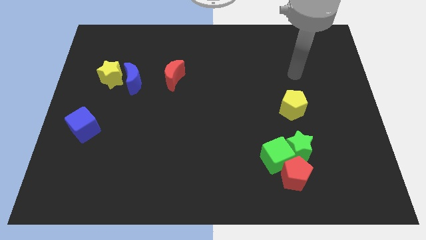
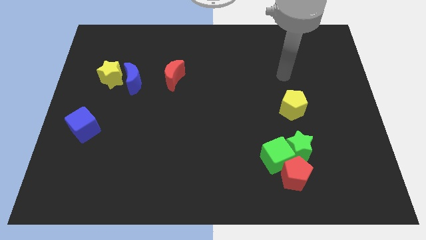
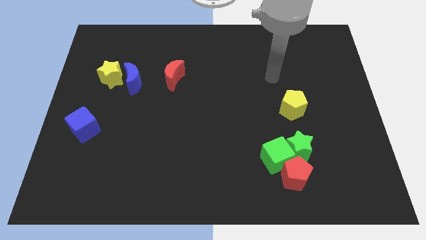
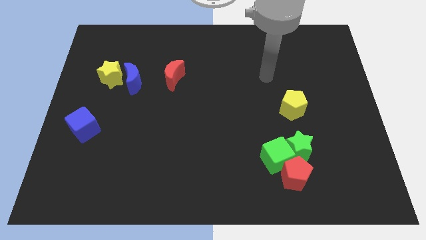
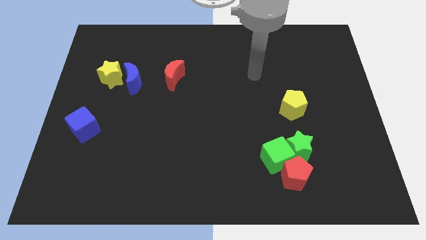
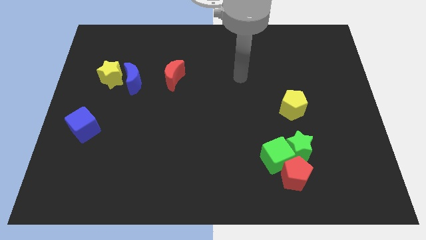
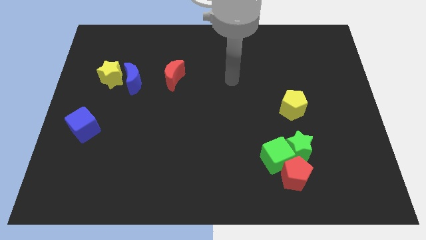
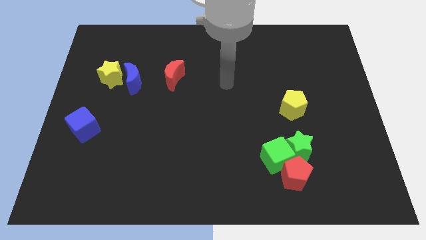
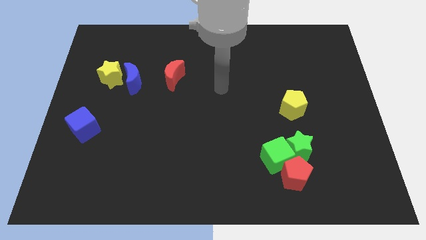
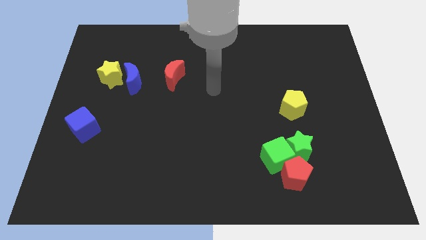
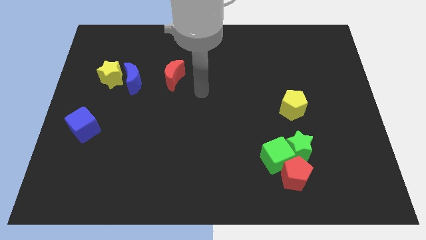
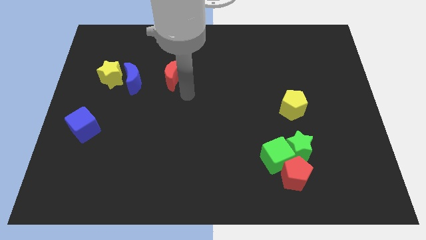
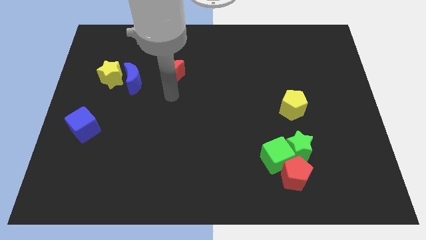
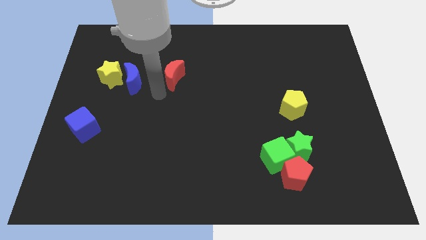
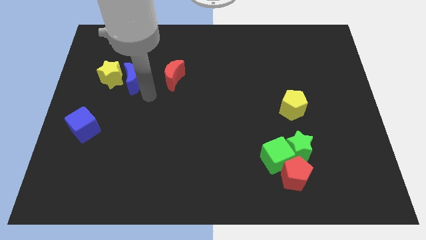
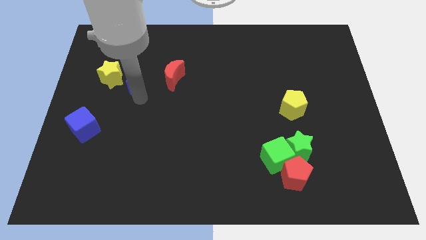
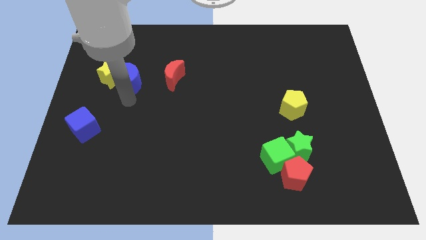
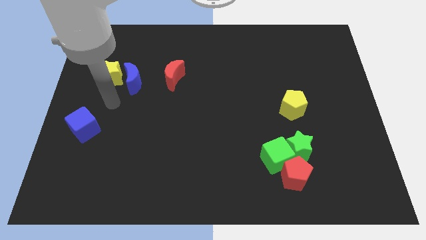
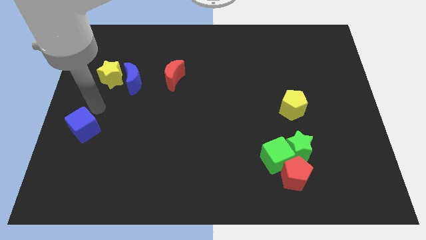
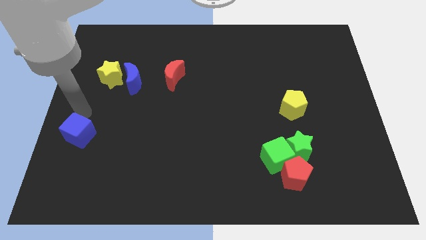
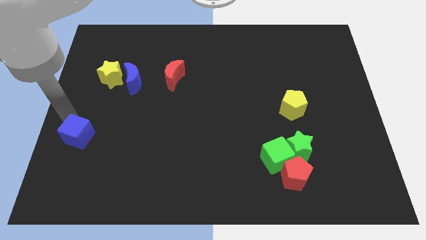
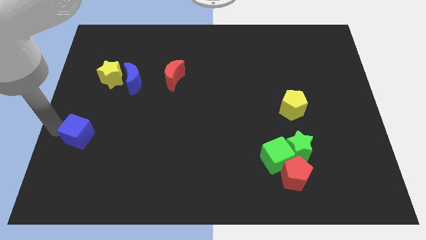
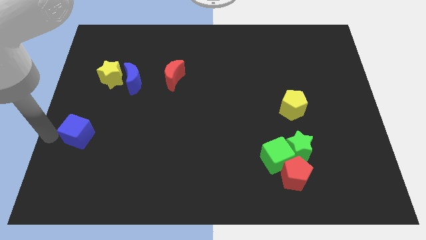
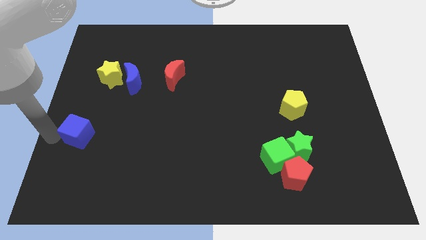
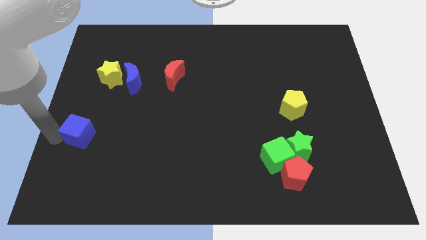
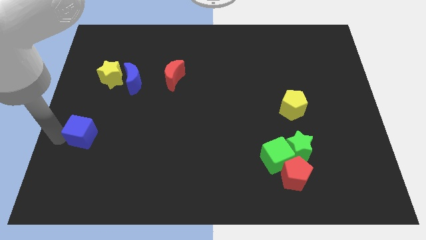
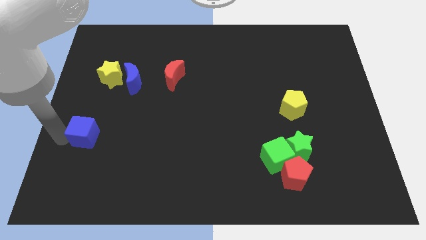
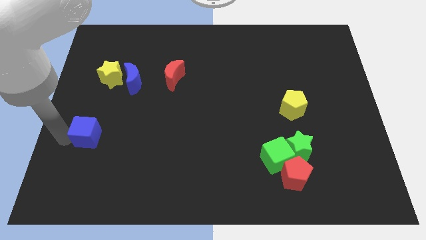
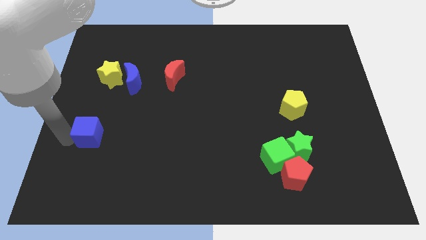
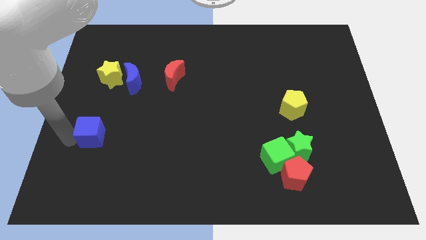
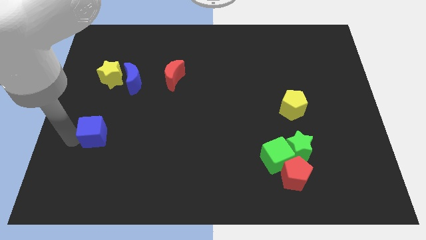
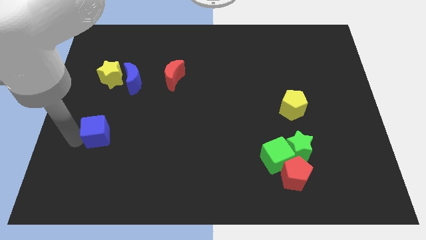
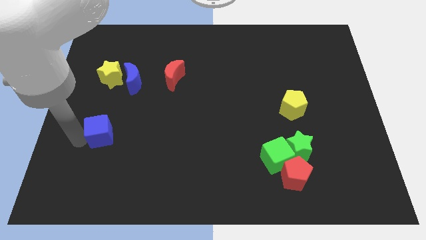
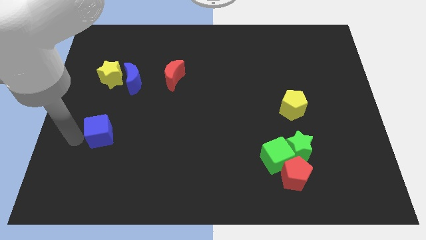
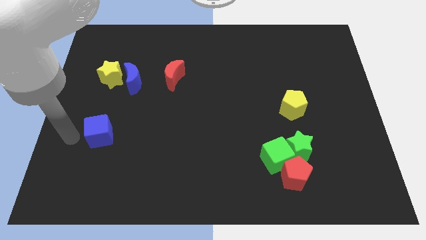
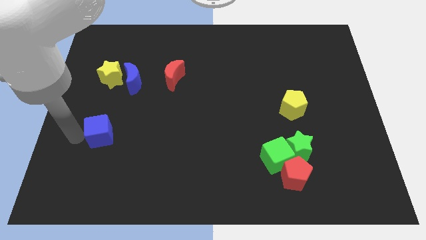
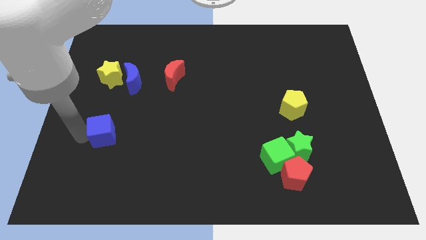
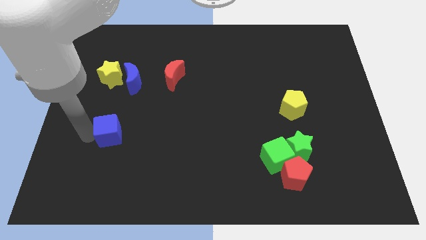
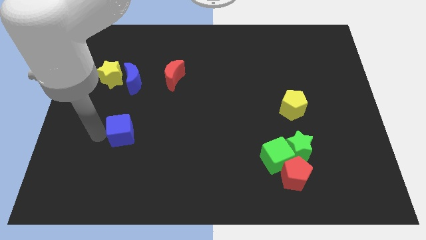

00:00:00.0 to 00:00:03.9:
push the blue cube a little right

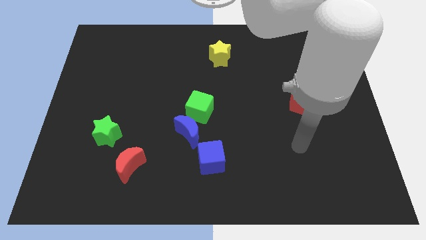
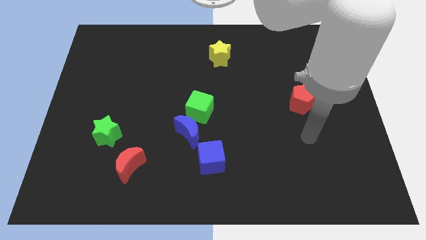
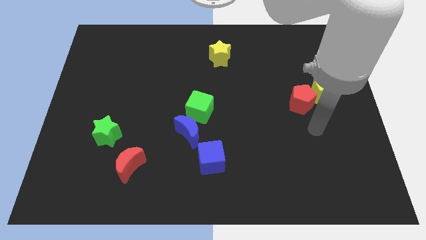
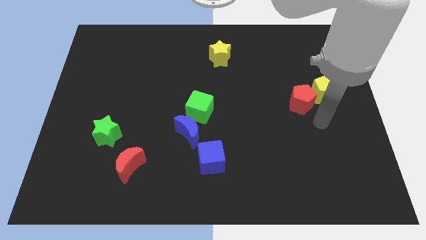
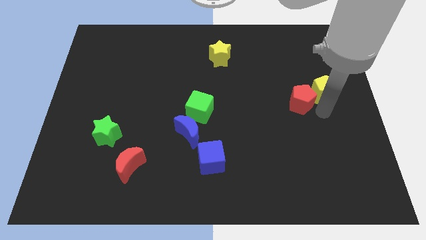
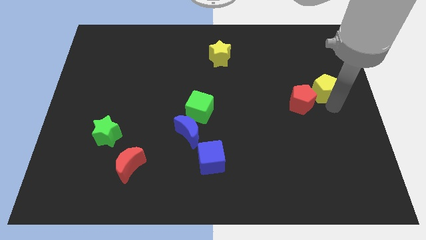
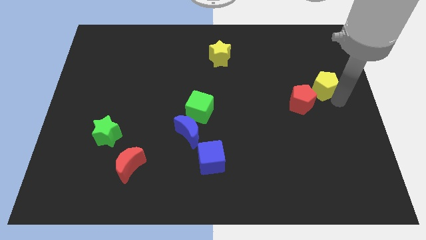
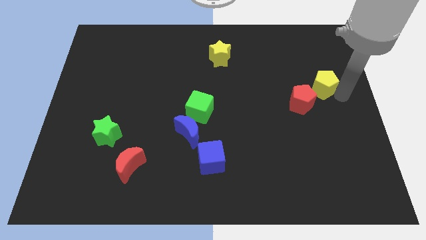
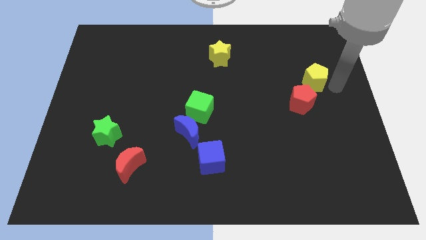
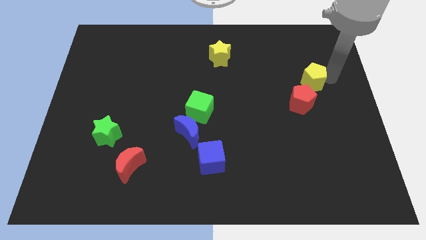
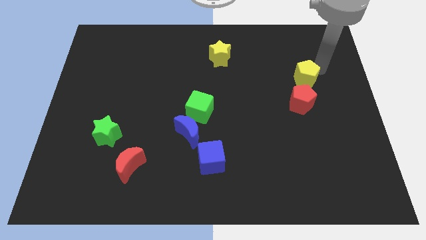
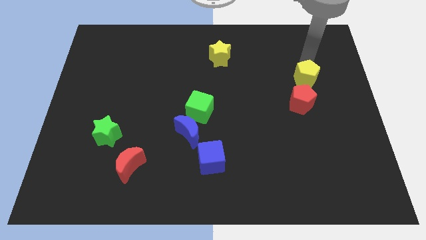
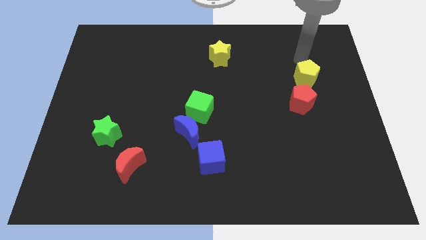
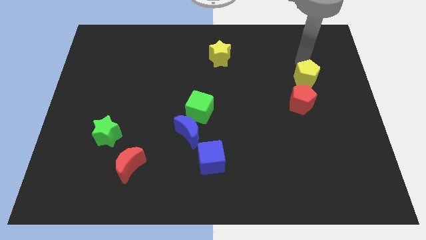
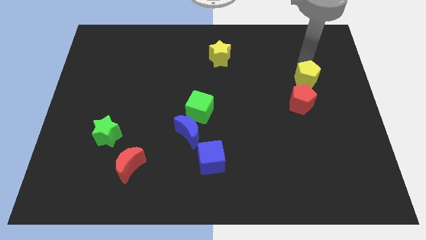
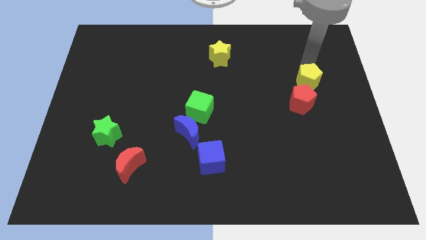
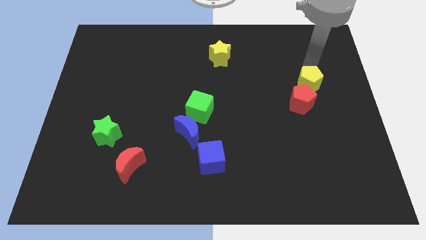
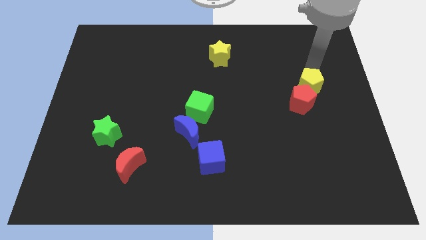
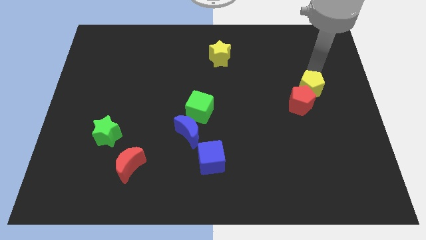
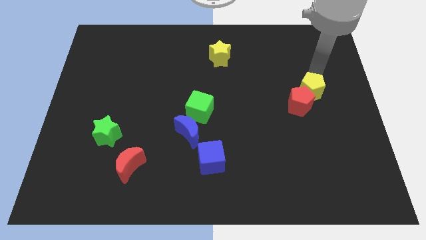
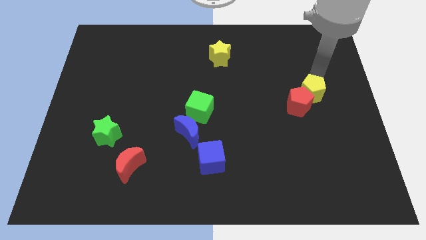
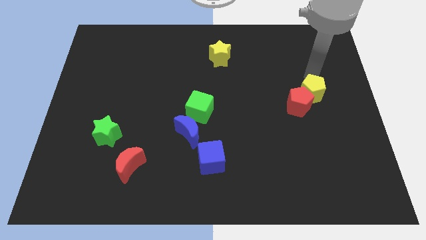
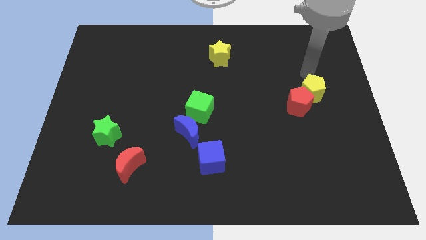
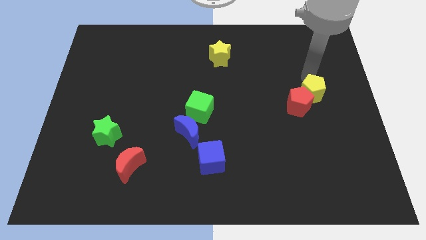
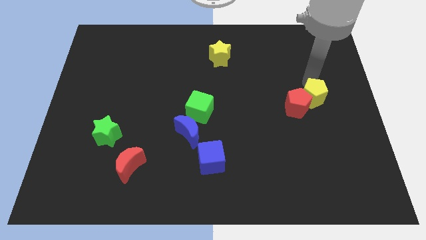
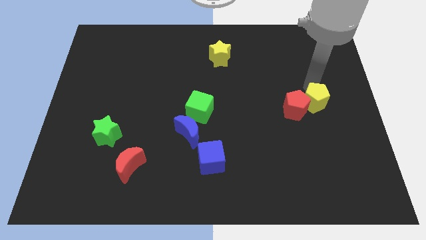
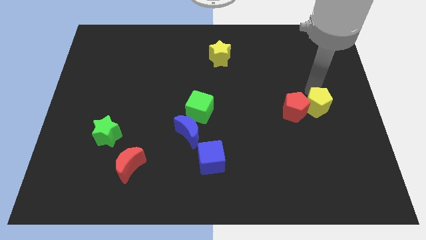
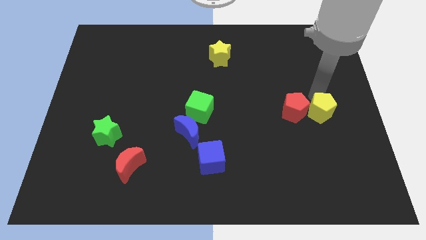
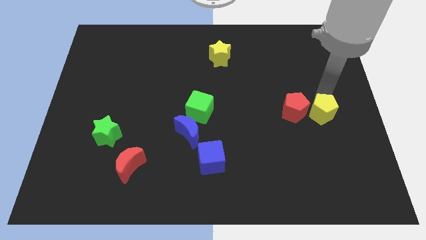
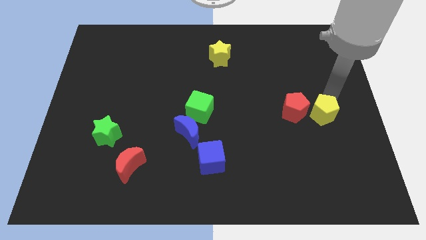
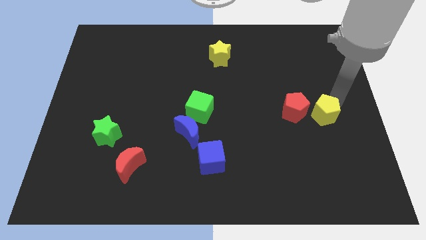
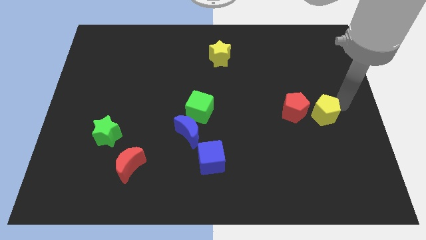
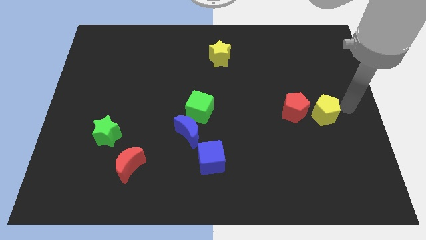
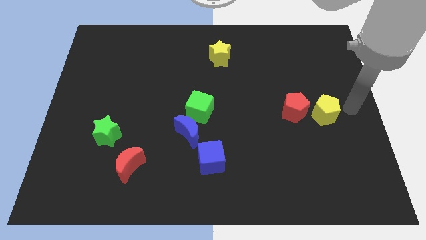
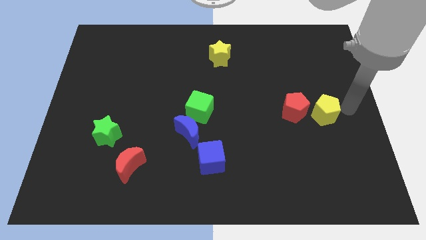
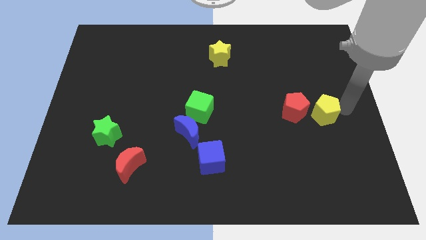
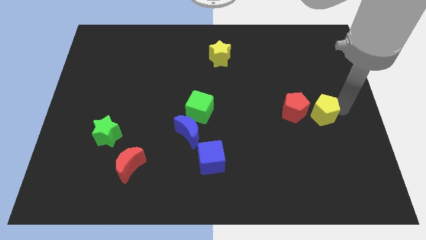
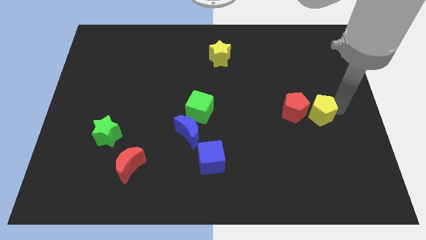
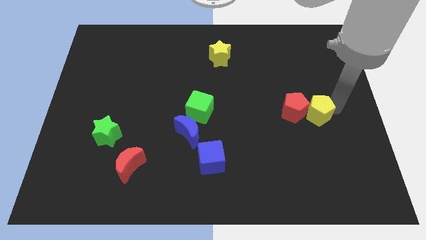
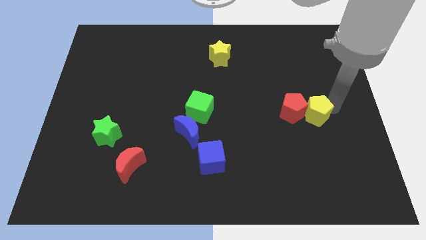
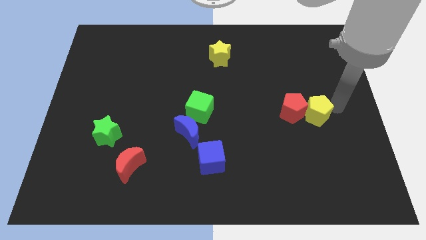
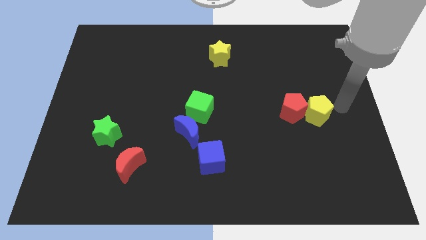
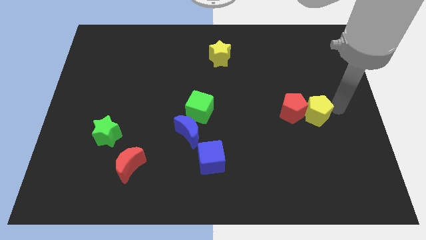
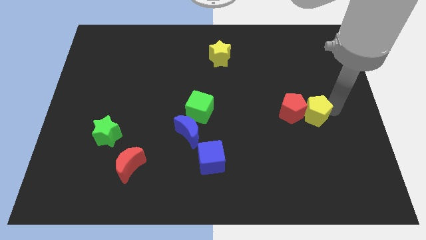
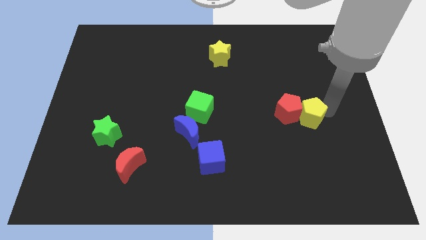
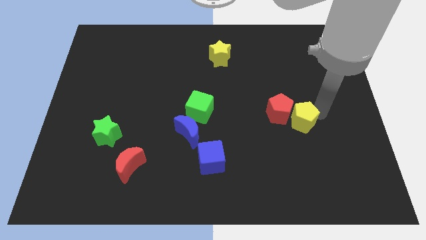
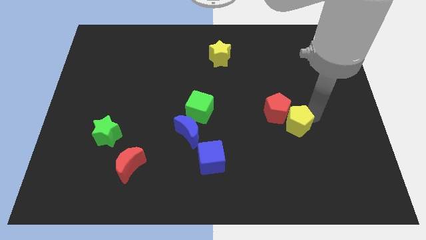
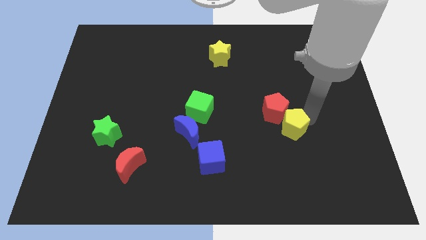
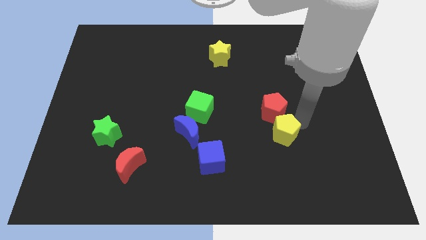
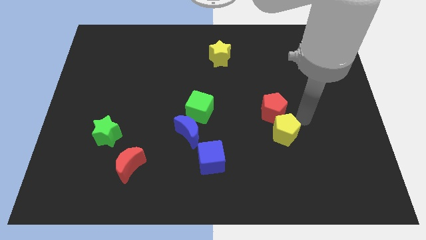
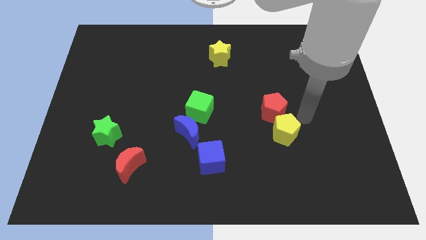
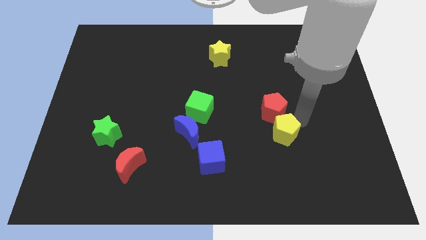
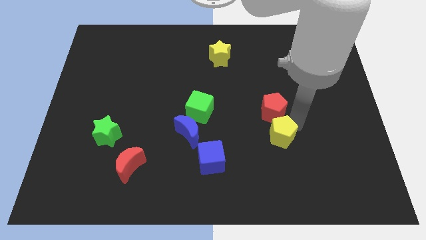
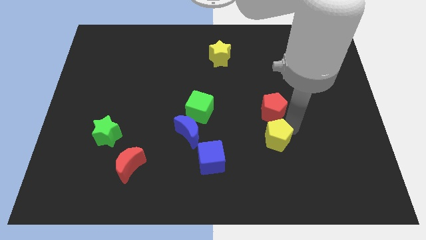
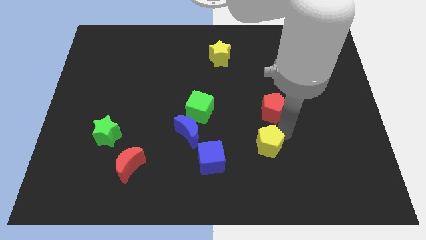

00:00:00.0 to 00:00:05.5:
slide the yellow pentagon downwards and to the left
